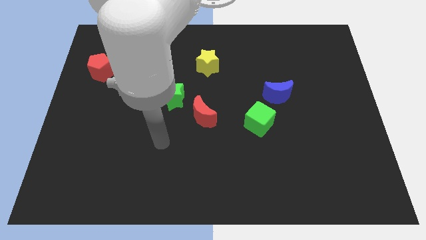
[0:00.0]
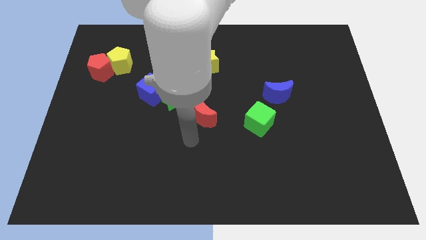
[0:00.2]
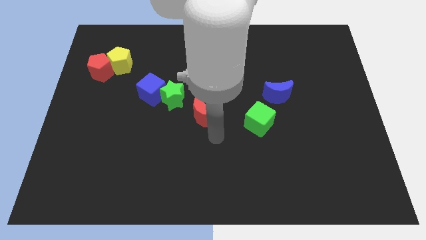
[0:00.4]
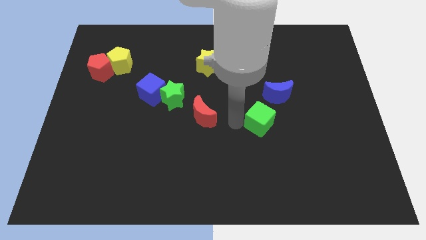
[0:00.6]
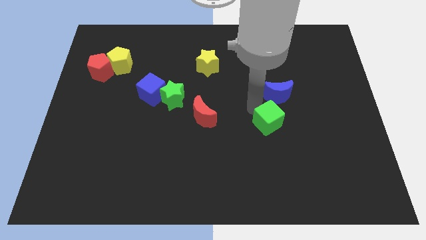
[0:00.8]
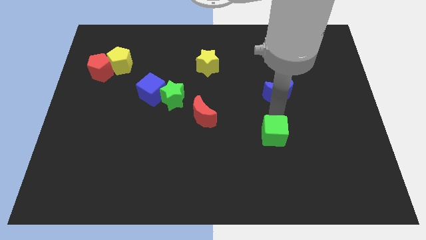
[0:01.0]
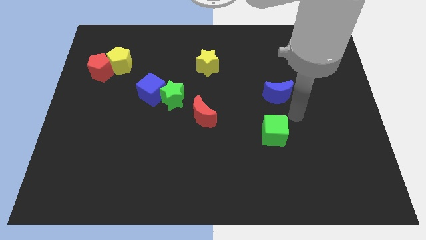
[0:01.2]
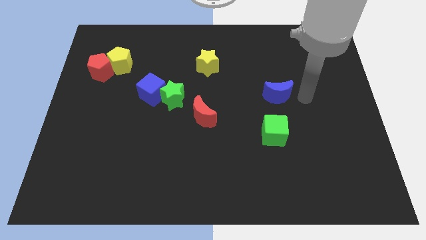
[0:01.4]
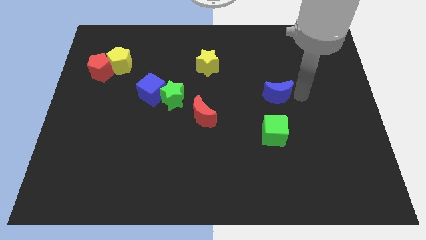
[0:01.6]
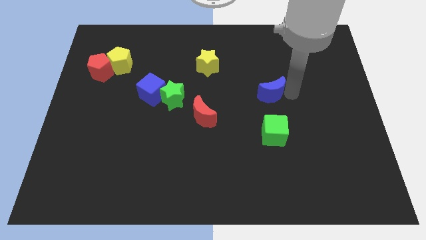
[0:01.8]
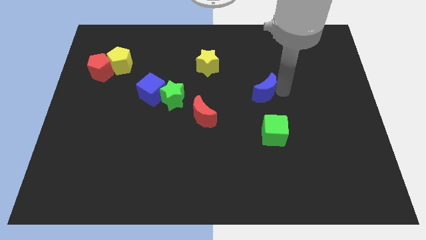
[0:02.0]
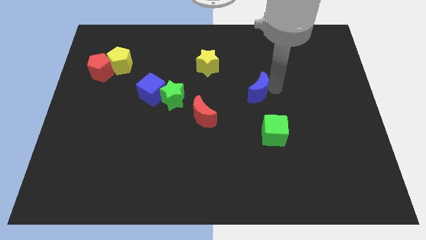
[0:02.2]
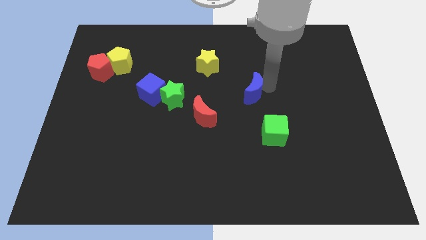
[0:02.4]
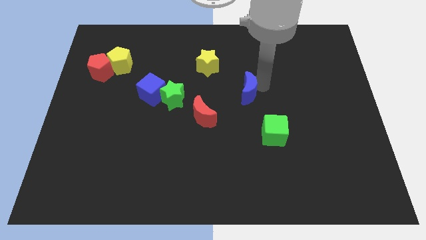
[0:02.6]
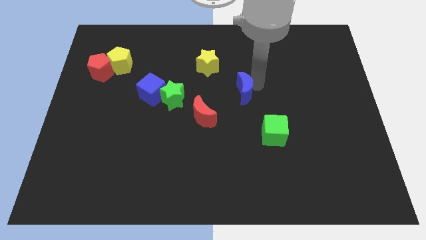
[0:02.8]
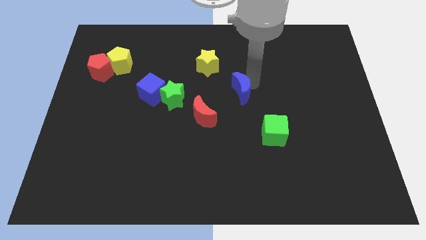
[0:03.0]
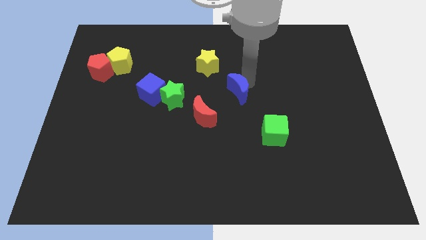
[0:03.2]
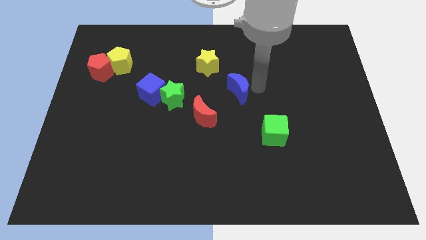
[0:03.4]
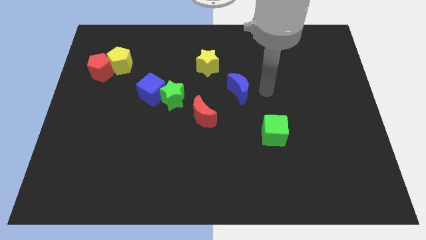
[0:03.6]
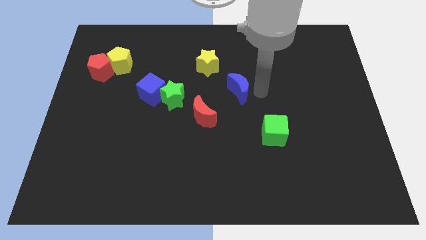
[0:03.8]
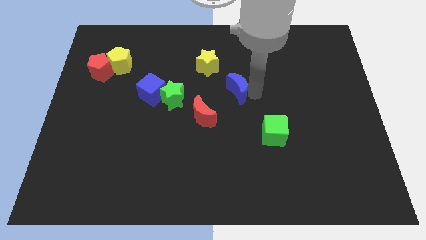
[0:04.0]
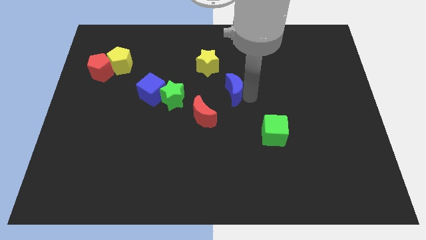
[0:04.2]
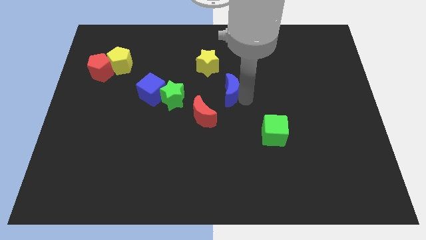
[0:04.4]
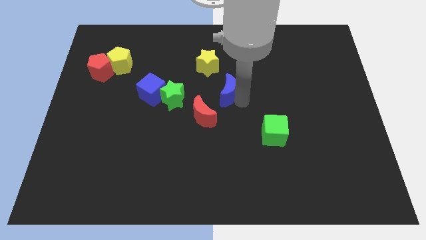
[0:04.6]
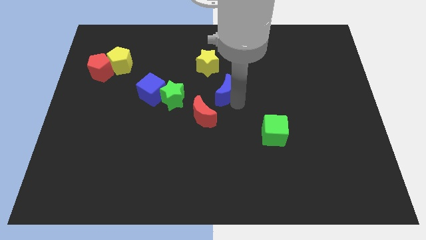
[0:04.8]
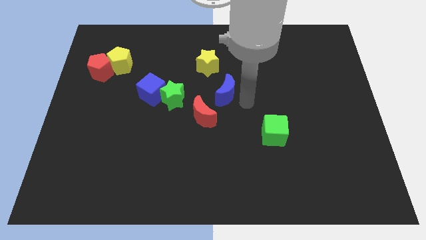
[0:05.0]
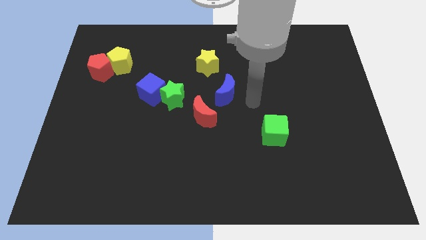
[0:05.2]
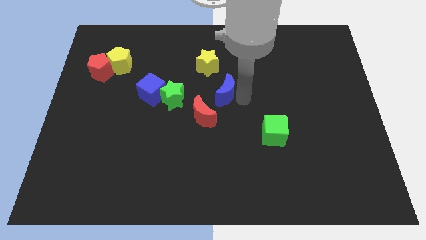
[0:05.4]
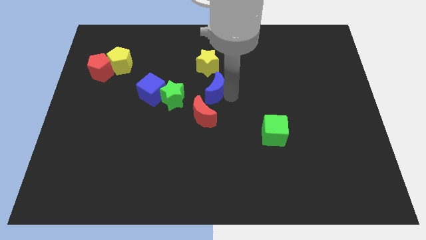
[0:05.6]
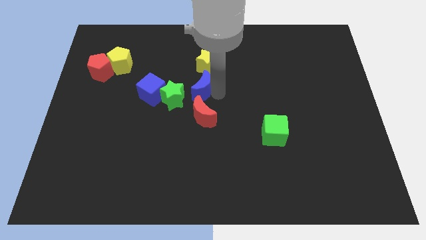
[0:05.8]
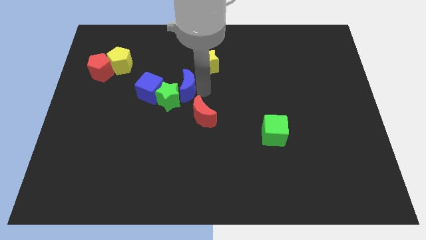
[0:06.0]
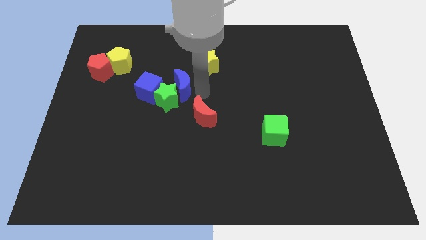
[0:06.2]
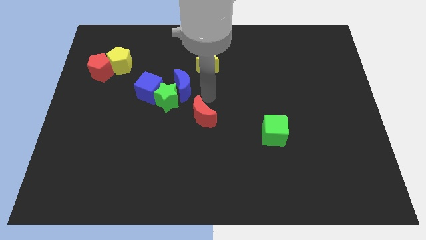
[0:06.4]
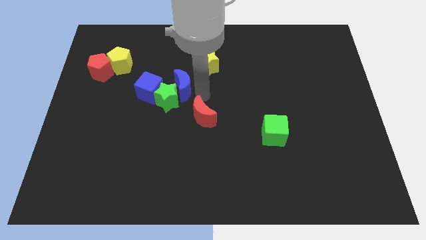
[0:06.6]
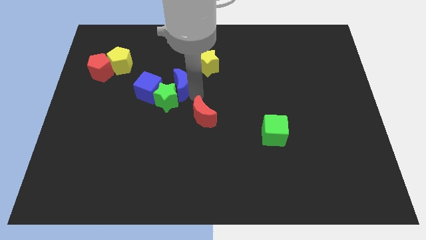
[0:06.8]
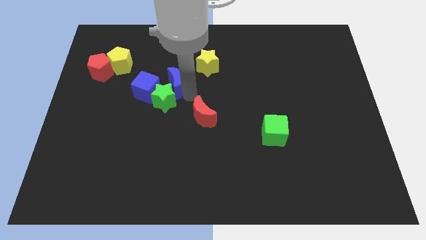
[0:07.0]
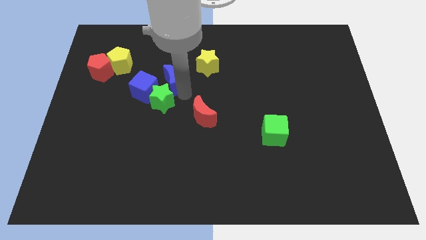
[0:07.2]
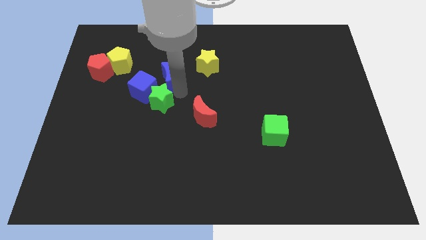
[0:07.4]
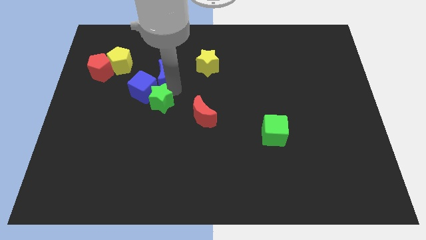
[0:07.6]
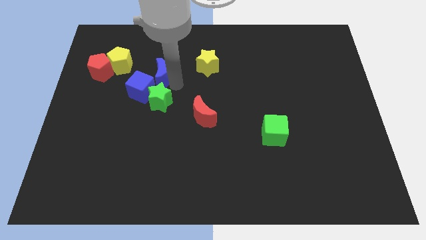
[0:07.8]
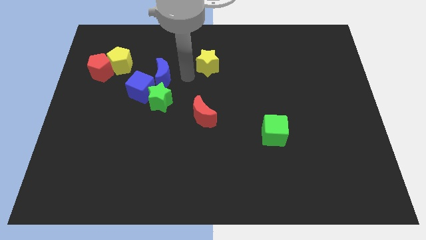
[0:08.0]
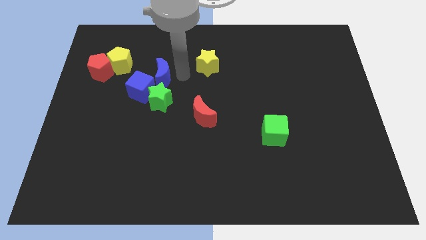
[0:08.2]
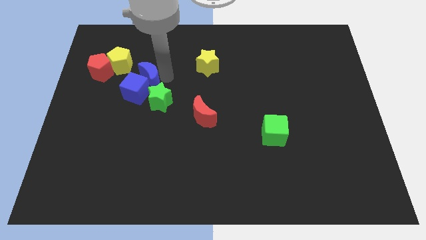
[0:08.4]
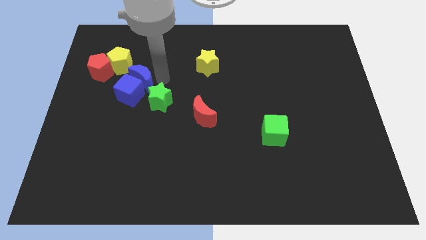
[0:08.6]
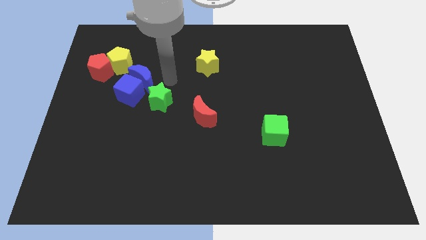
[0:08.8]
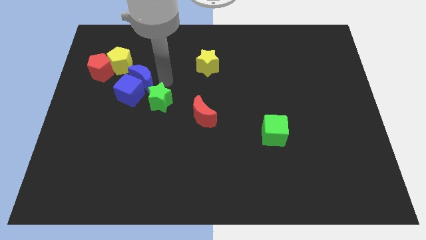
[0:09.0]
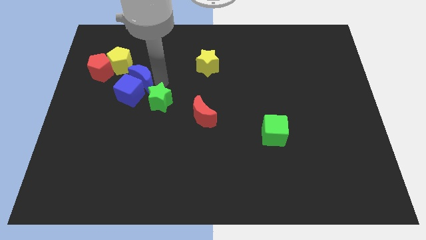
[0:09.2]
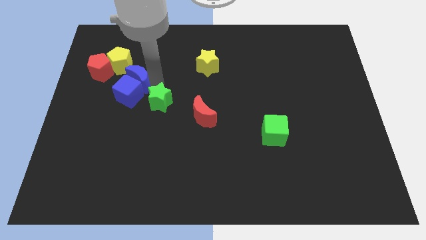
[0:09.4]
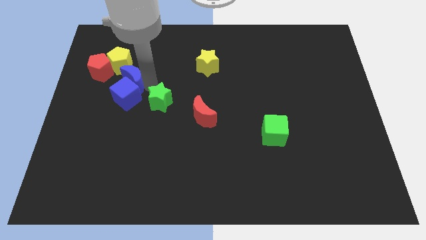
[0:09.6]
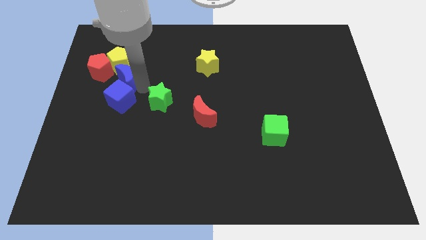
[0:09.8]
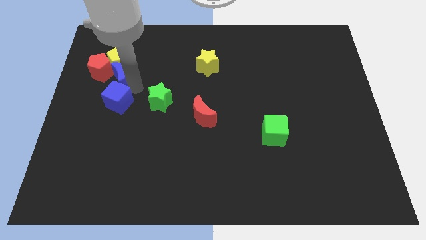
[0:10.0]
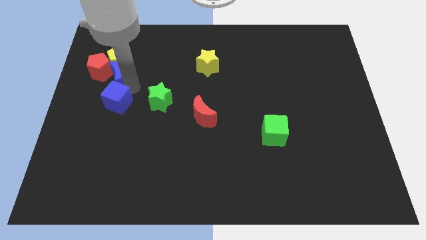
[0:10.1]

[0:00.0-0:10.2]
move the blue moon next to the red pentagon

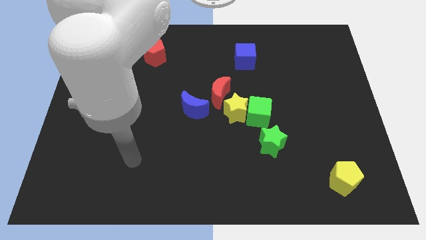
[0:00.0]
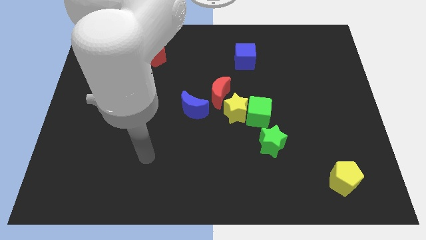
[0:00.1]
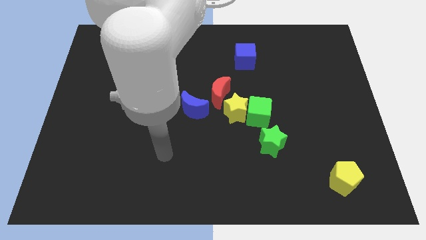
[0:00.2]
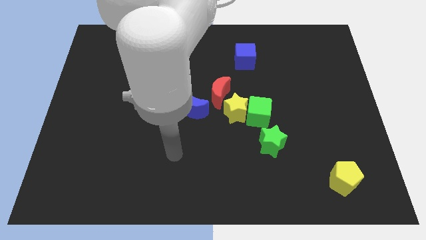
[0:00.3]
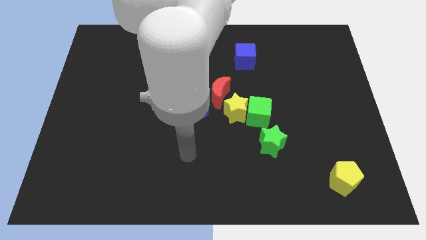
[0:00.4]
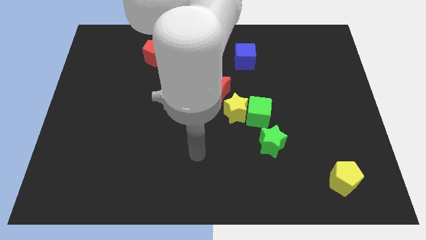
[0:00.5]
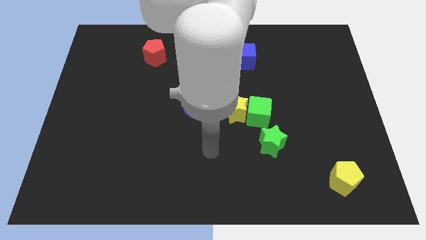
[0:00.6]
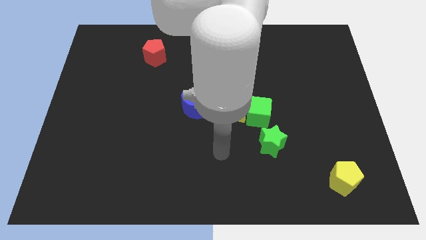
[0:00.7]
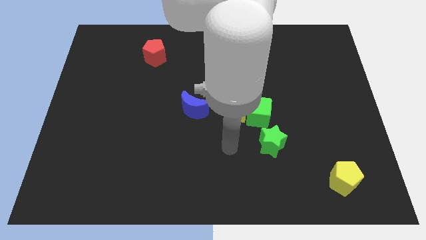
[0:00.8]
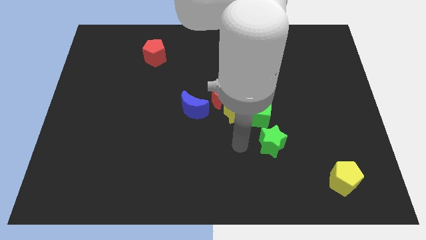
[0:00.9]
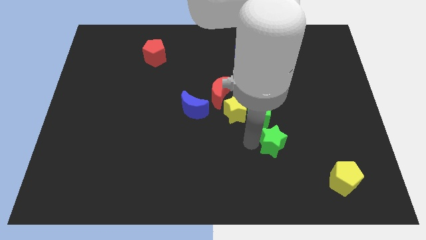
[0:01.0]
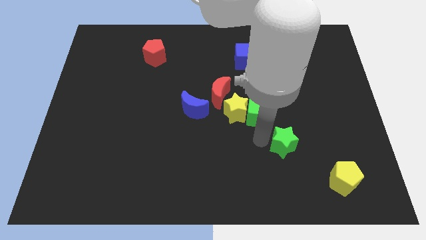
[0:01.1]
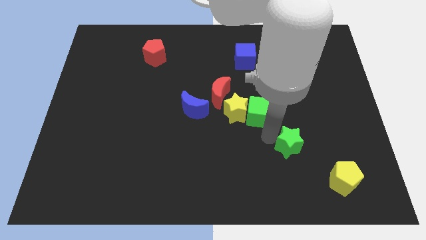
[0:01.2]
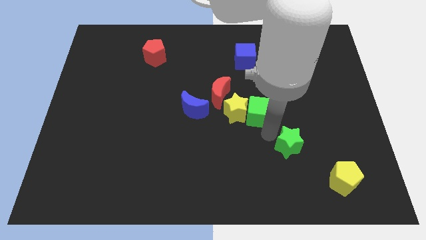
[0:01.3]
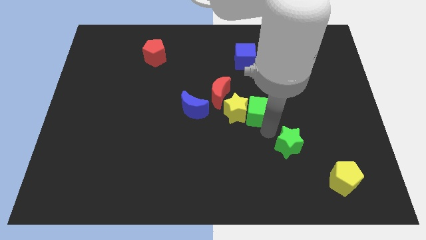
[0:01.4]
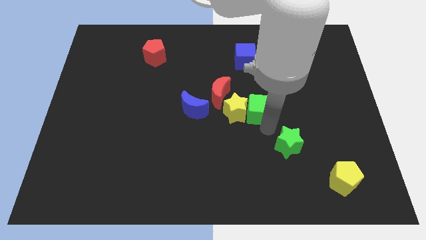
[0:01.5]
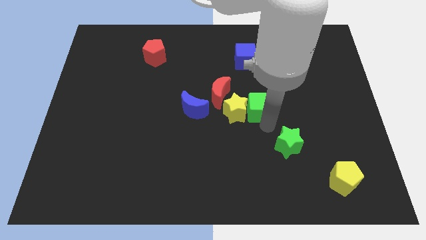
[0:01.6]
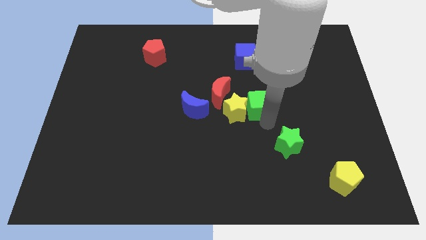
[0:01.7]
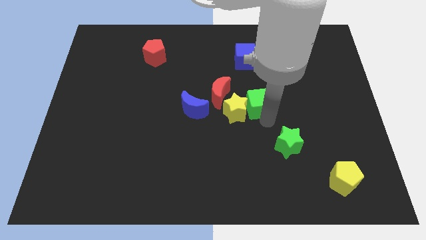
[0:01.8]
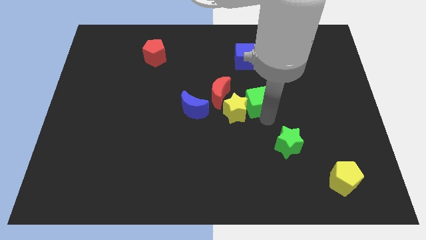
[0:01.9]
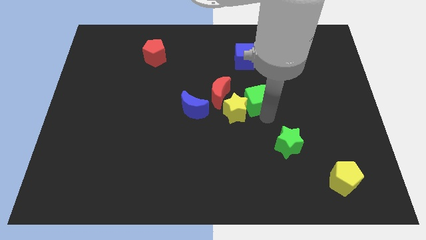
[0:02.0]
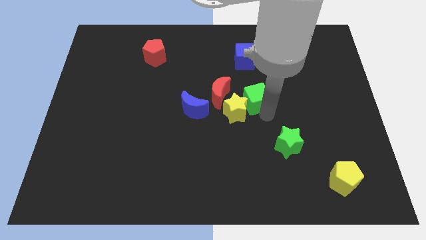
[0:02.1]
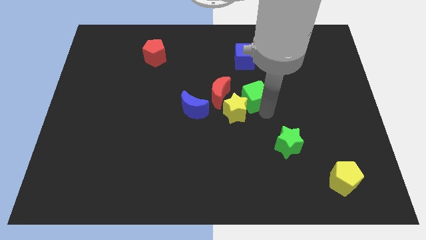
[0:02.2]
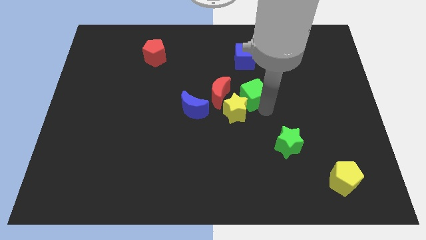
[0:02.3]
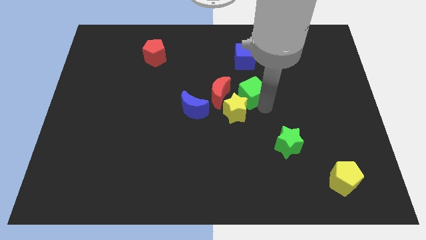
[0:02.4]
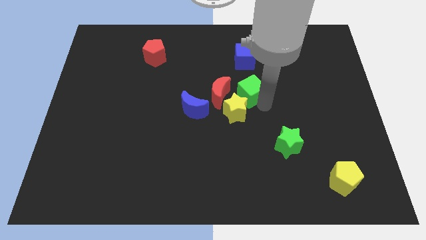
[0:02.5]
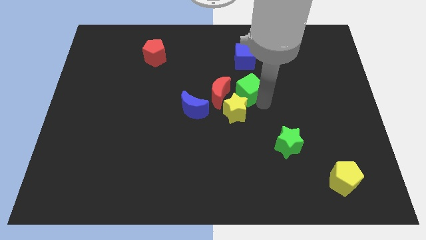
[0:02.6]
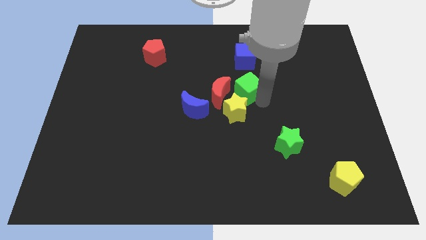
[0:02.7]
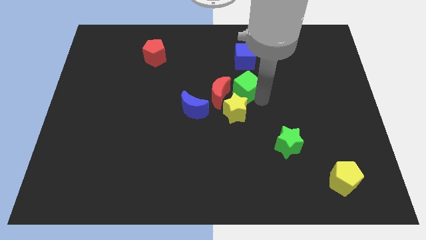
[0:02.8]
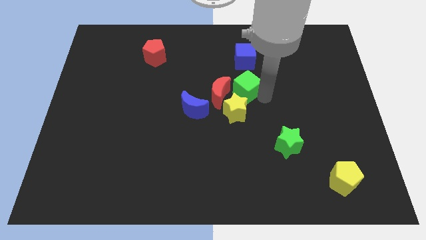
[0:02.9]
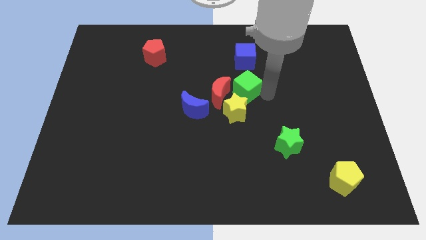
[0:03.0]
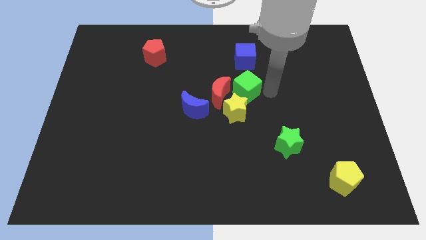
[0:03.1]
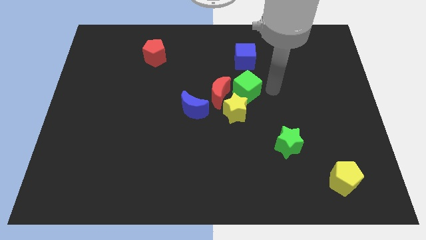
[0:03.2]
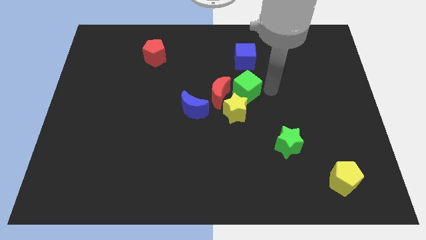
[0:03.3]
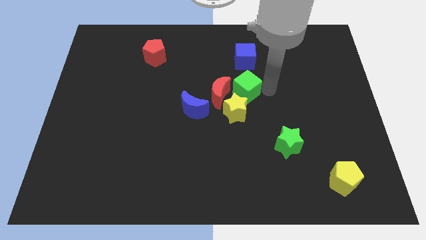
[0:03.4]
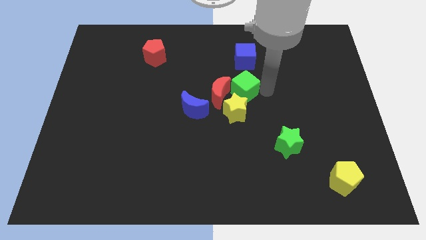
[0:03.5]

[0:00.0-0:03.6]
push the green cube next to the red moon
